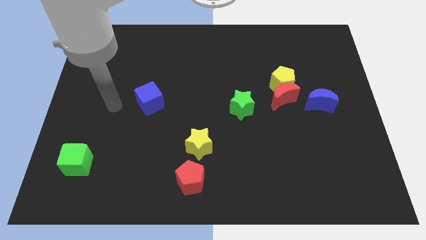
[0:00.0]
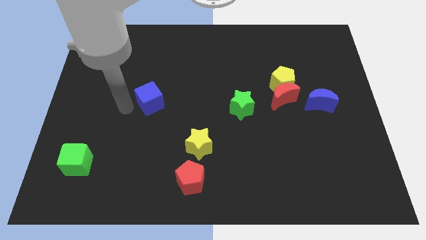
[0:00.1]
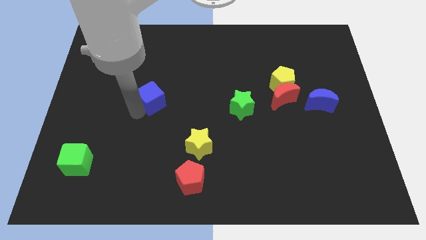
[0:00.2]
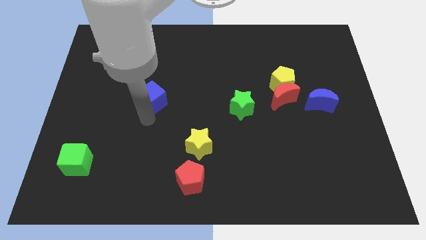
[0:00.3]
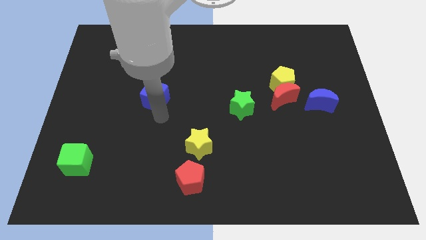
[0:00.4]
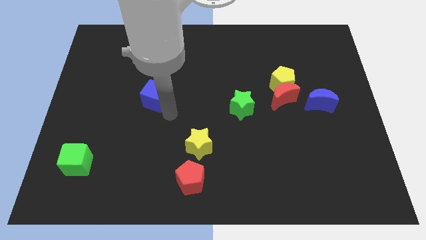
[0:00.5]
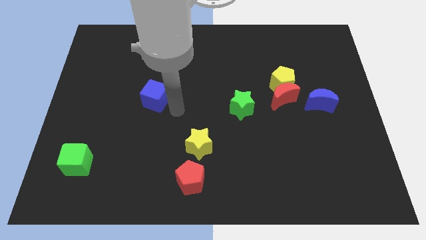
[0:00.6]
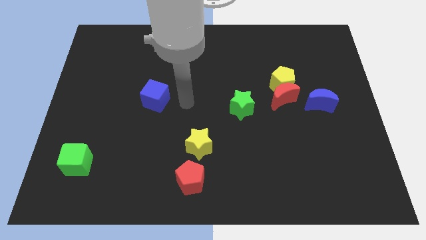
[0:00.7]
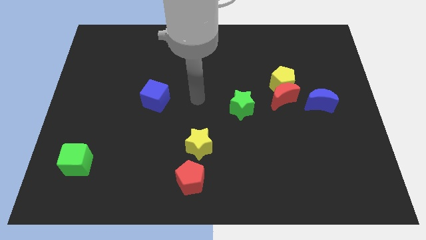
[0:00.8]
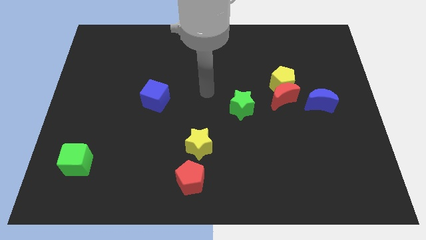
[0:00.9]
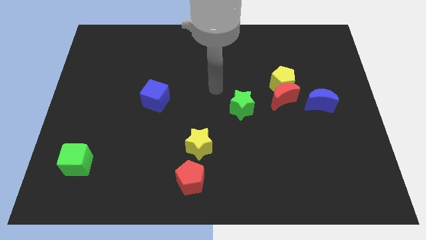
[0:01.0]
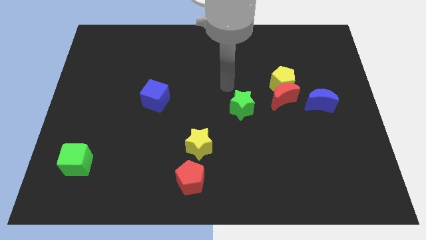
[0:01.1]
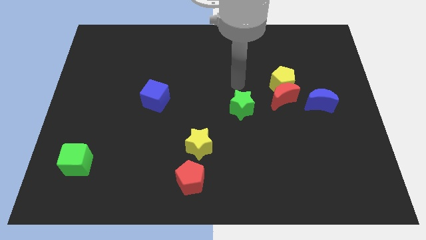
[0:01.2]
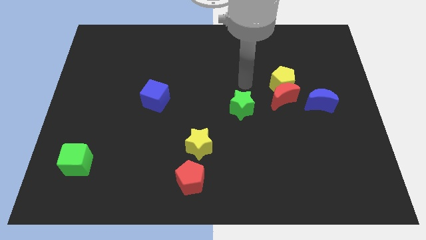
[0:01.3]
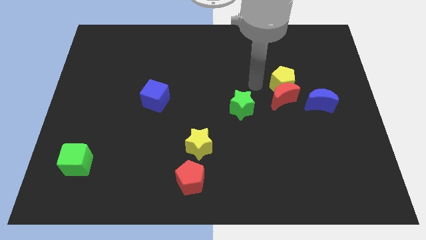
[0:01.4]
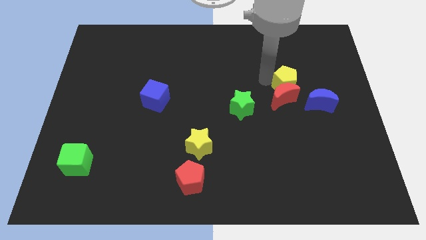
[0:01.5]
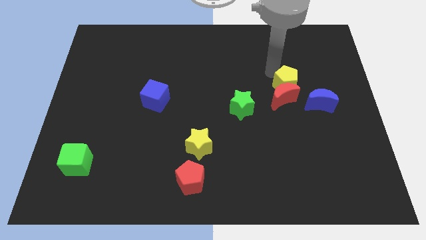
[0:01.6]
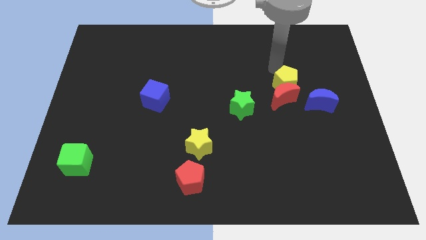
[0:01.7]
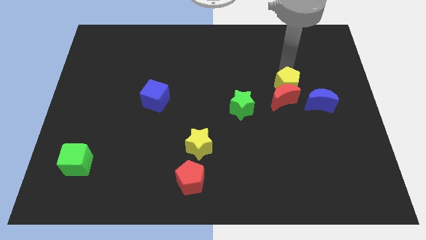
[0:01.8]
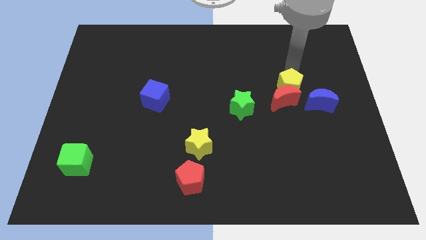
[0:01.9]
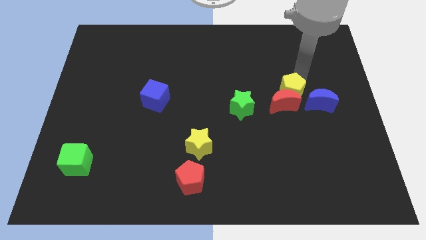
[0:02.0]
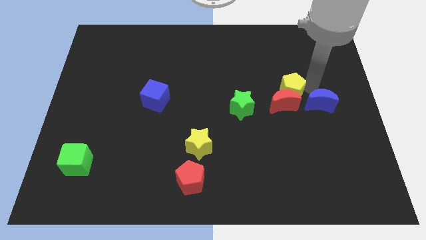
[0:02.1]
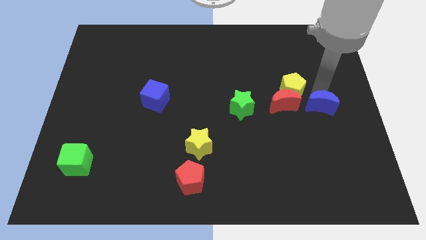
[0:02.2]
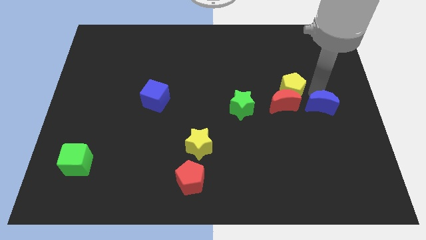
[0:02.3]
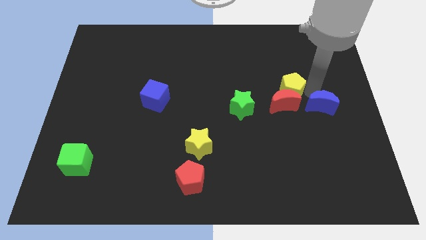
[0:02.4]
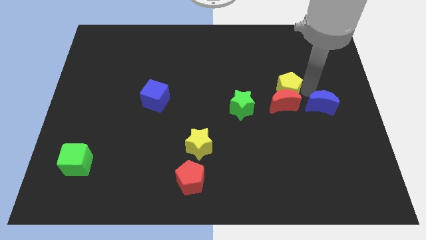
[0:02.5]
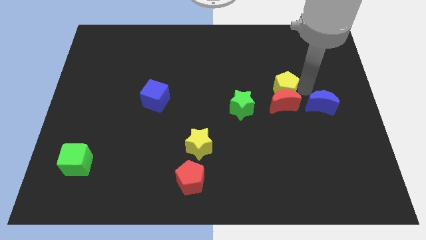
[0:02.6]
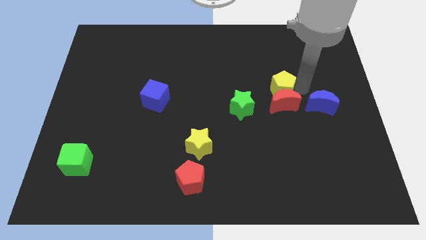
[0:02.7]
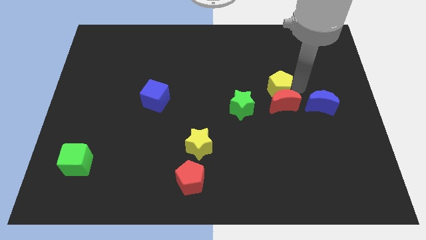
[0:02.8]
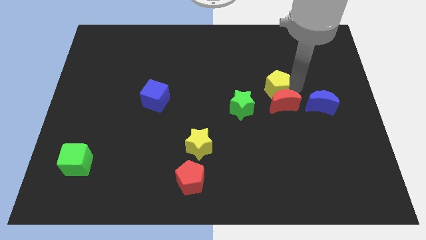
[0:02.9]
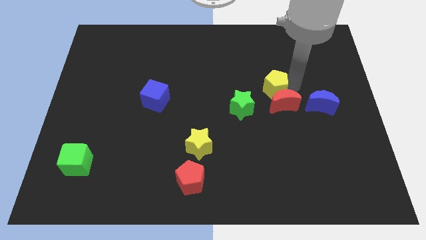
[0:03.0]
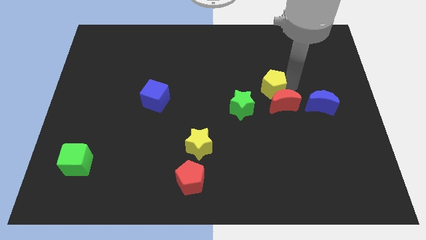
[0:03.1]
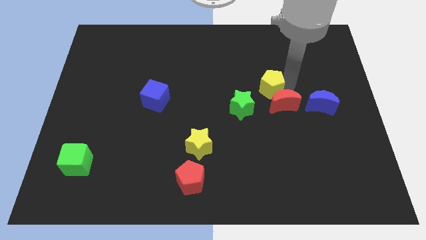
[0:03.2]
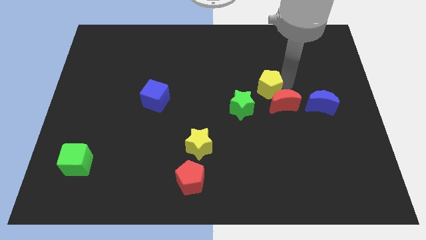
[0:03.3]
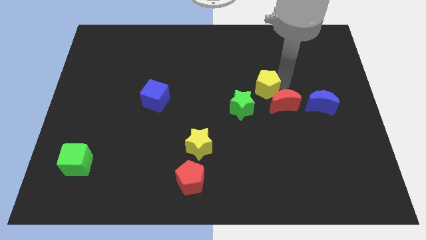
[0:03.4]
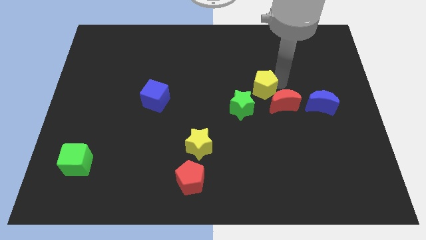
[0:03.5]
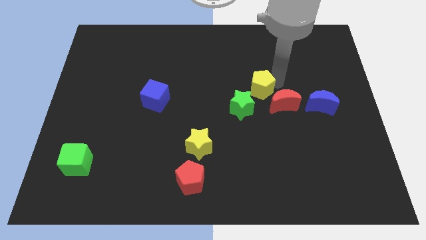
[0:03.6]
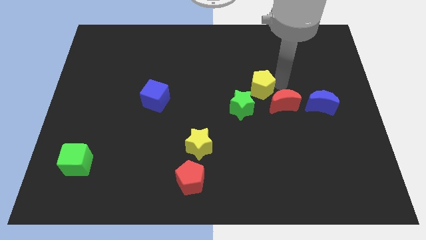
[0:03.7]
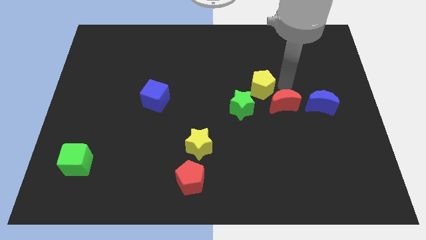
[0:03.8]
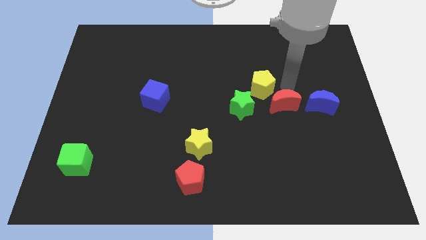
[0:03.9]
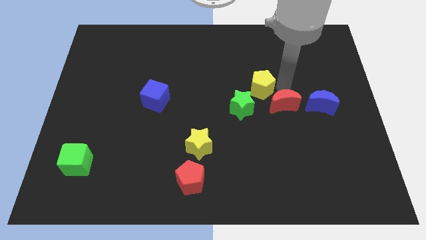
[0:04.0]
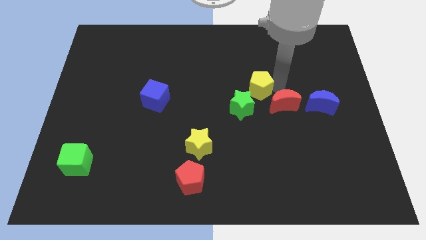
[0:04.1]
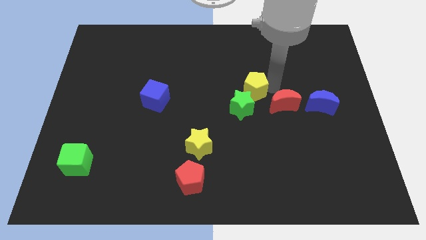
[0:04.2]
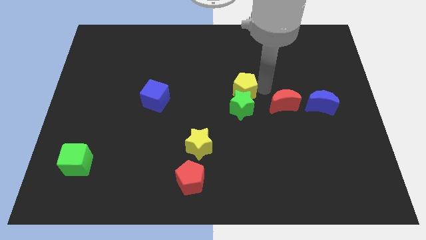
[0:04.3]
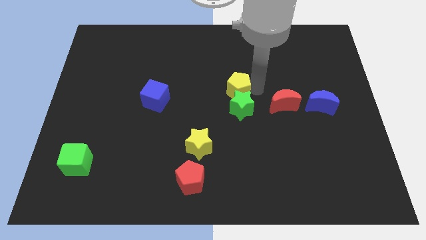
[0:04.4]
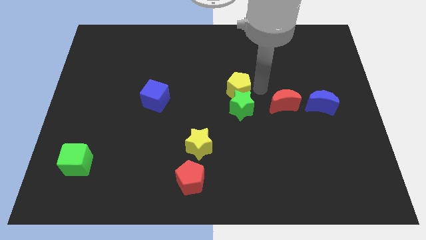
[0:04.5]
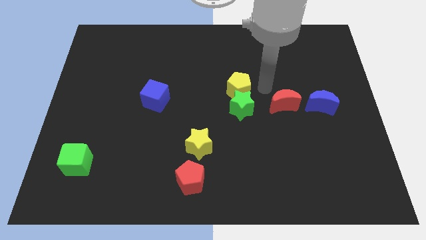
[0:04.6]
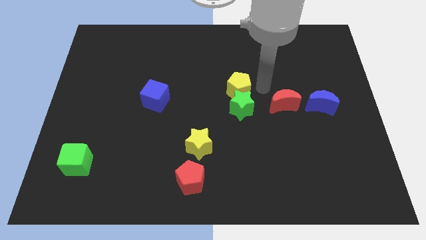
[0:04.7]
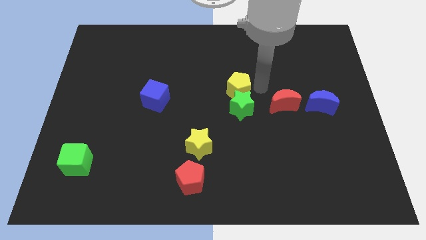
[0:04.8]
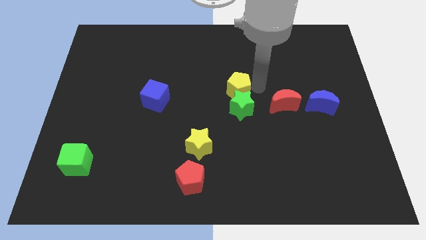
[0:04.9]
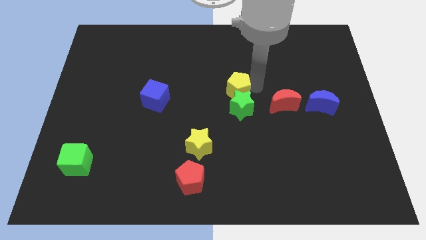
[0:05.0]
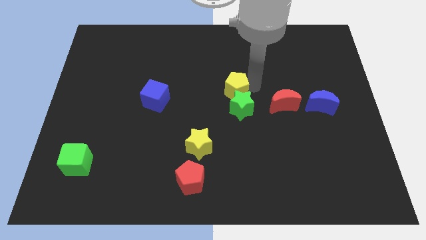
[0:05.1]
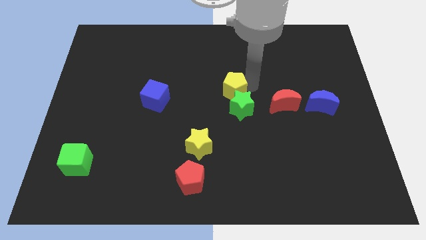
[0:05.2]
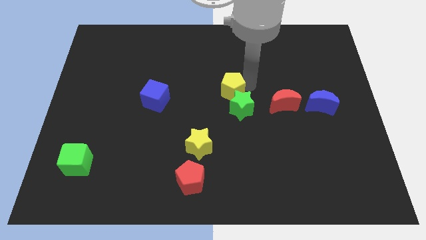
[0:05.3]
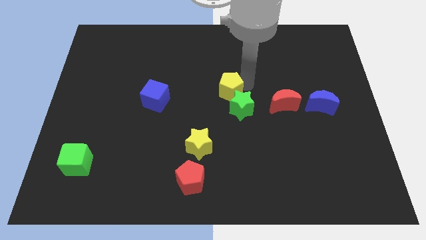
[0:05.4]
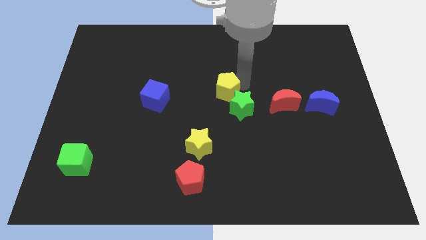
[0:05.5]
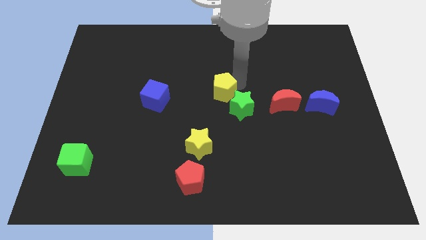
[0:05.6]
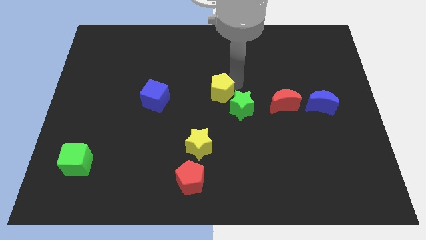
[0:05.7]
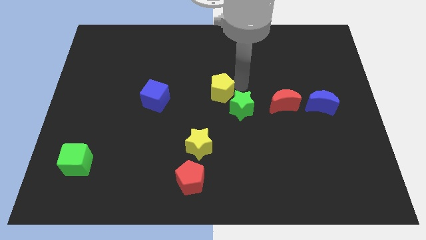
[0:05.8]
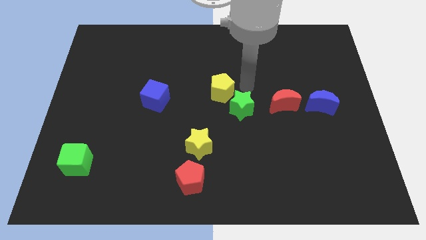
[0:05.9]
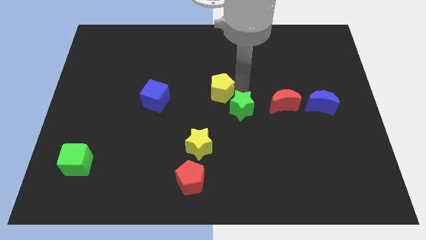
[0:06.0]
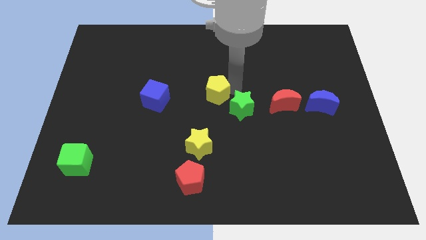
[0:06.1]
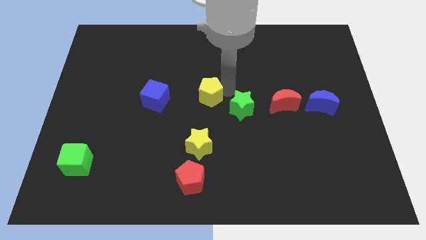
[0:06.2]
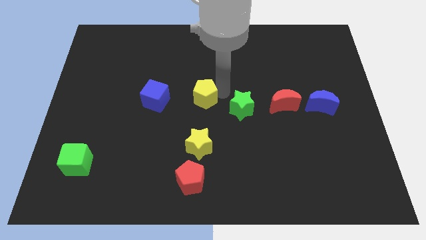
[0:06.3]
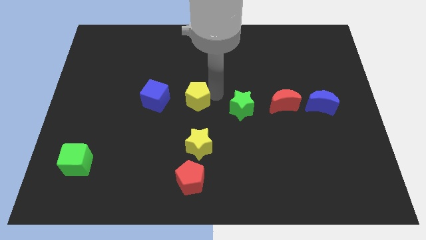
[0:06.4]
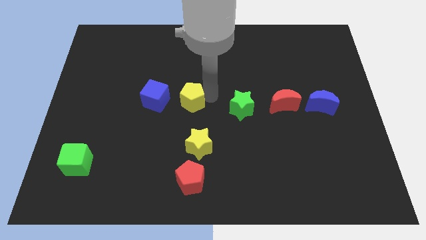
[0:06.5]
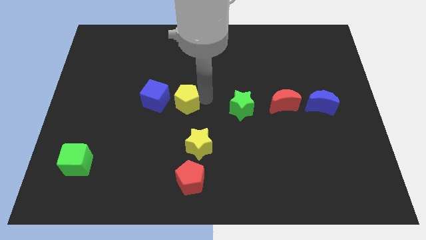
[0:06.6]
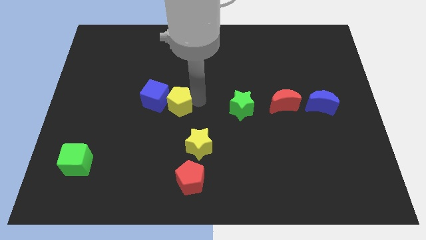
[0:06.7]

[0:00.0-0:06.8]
put the yellow pentagon next to the blue cube

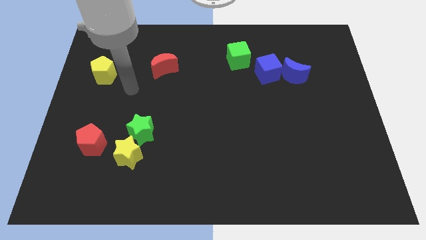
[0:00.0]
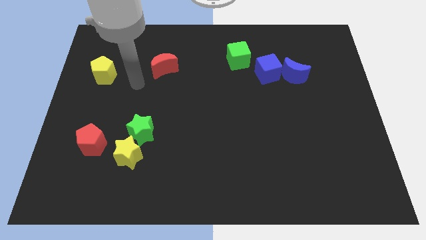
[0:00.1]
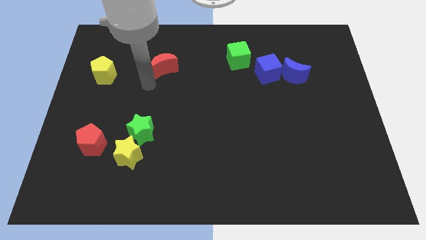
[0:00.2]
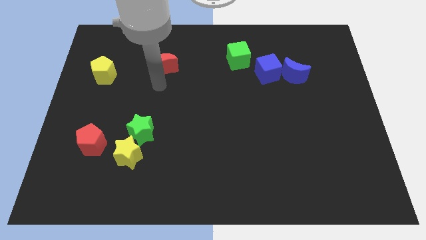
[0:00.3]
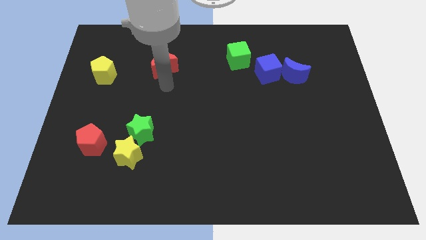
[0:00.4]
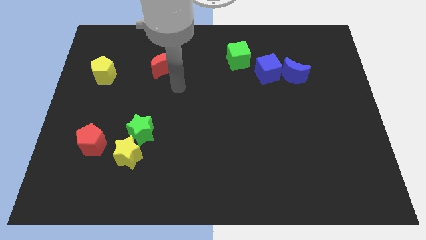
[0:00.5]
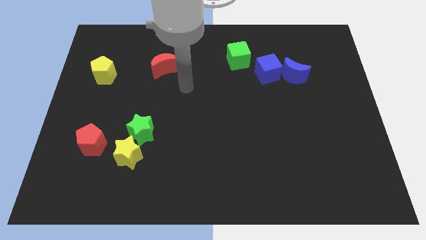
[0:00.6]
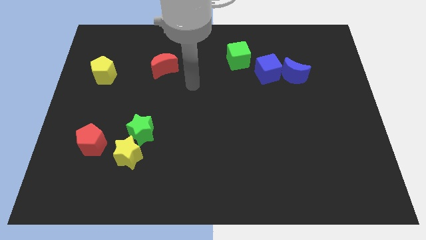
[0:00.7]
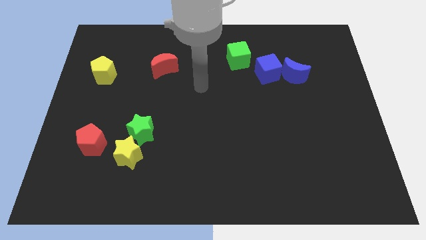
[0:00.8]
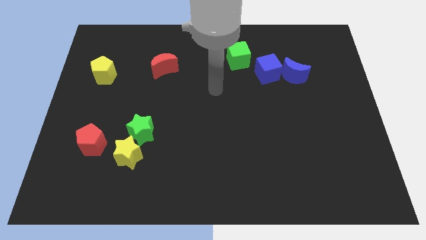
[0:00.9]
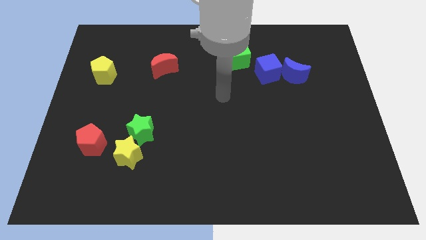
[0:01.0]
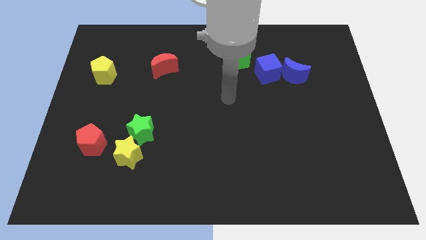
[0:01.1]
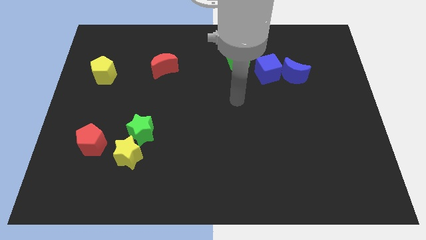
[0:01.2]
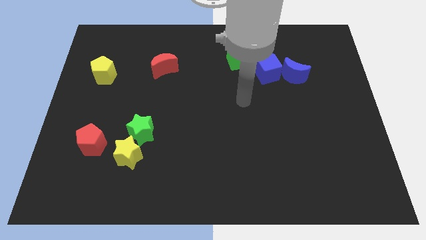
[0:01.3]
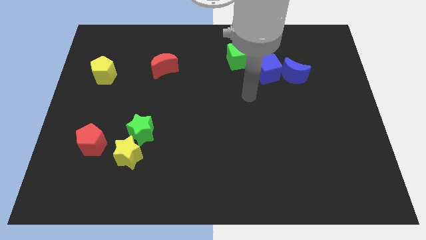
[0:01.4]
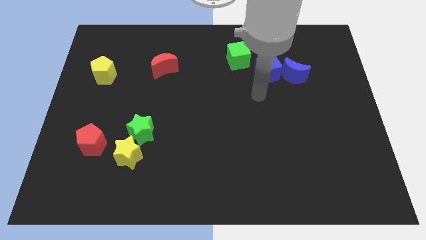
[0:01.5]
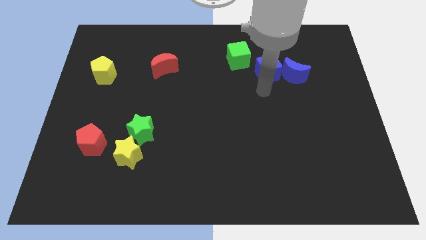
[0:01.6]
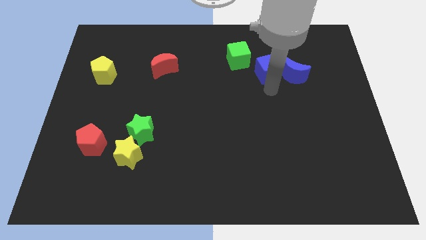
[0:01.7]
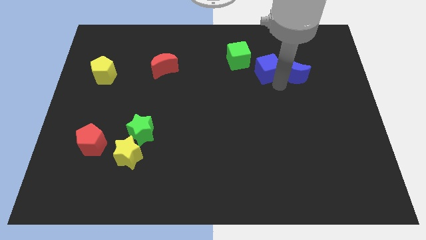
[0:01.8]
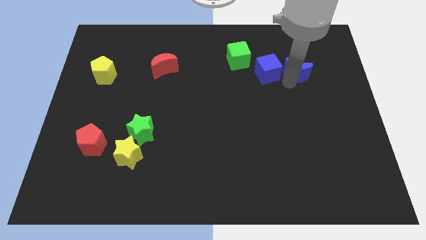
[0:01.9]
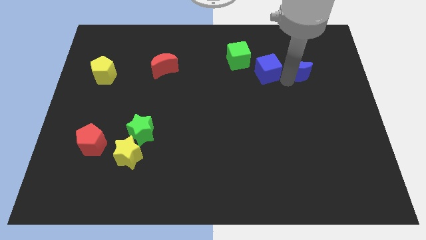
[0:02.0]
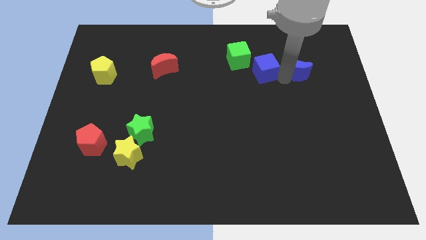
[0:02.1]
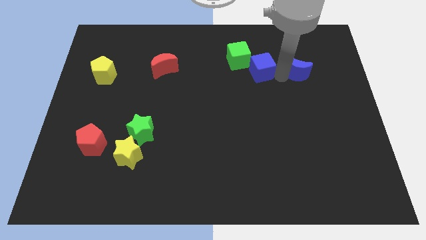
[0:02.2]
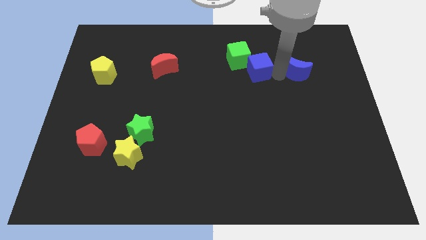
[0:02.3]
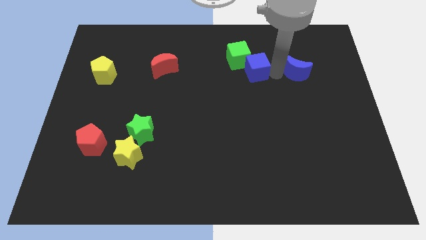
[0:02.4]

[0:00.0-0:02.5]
move the blue cube towards the green cube
